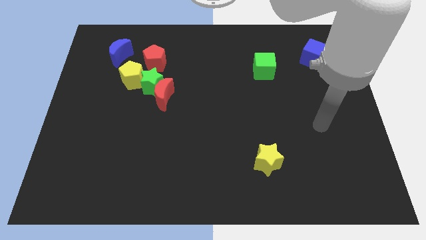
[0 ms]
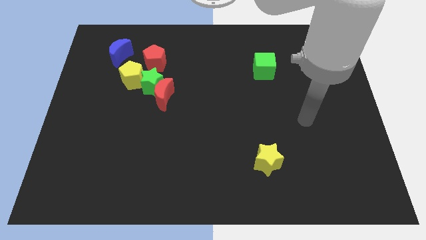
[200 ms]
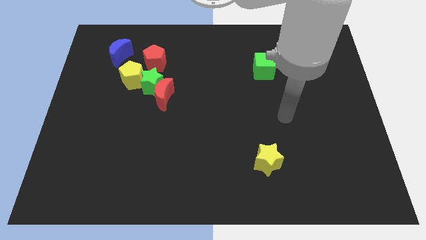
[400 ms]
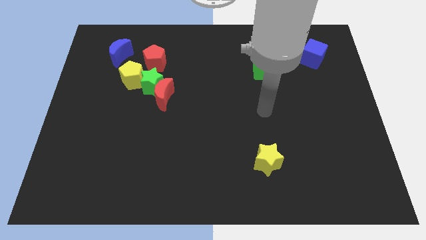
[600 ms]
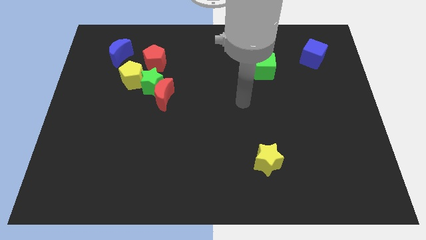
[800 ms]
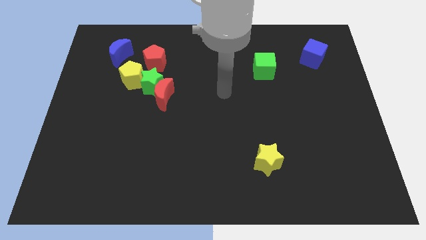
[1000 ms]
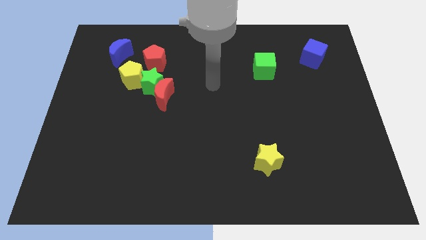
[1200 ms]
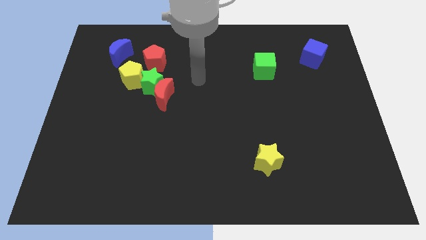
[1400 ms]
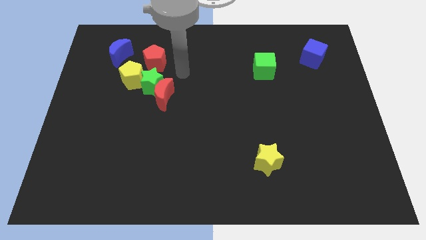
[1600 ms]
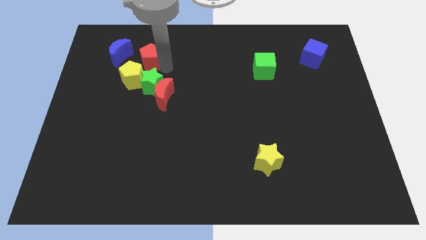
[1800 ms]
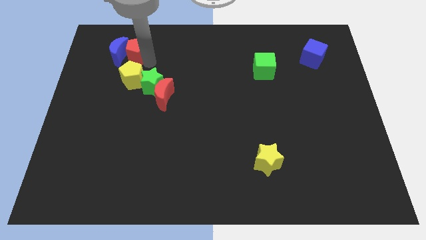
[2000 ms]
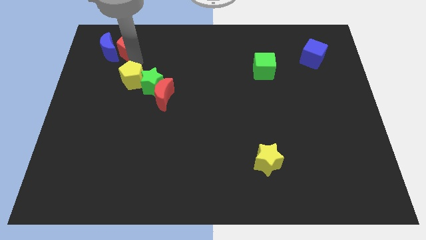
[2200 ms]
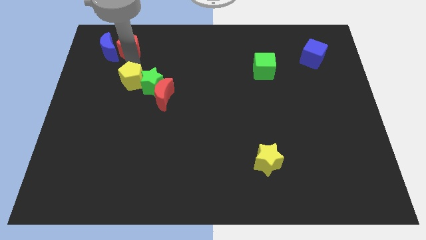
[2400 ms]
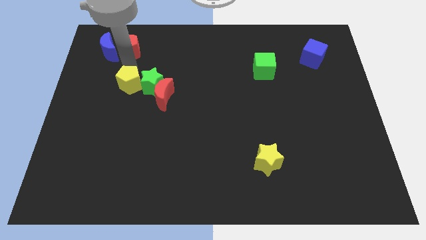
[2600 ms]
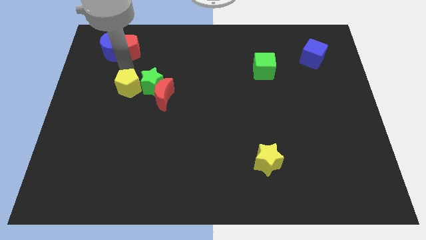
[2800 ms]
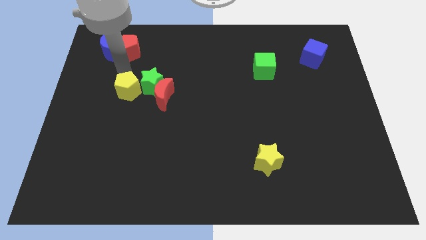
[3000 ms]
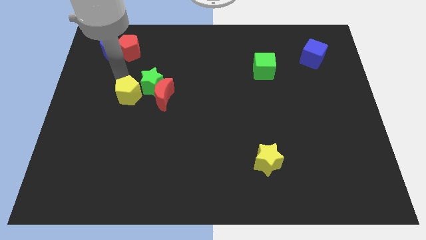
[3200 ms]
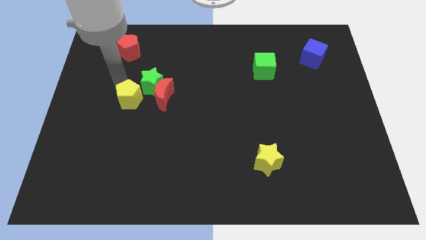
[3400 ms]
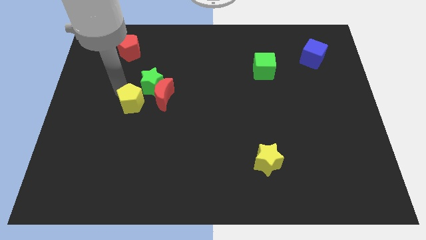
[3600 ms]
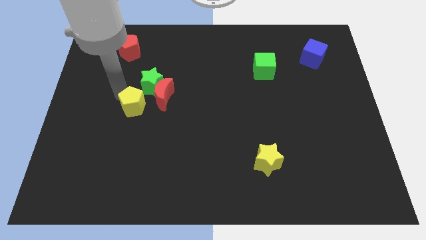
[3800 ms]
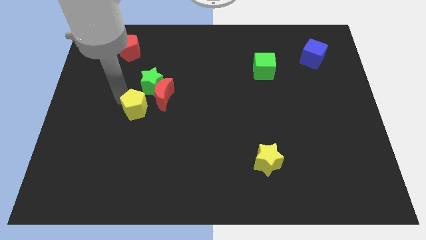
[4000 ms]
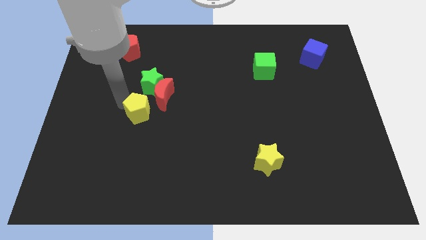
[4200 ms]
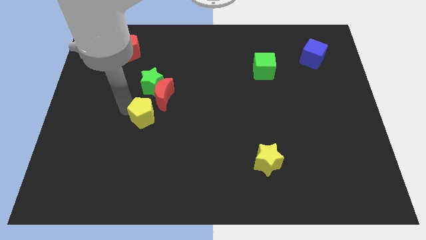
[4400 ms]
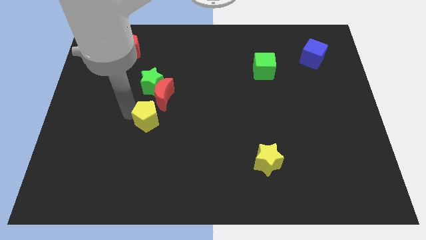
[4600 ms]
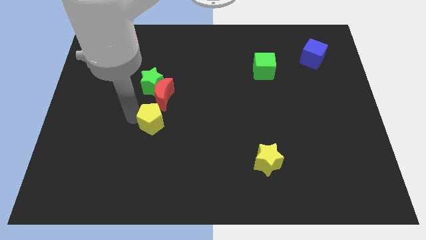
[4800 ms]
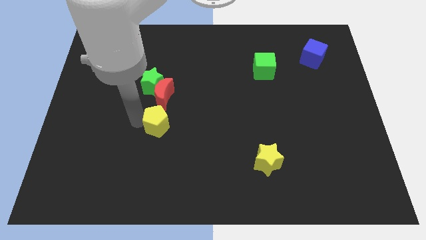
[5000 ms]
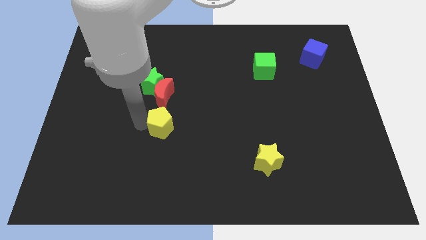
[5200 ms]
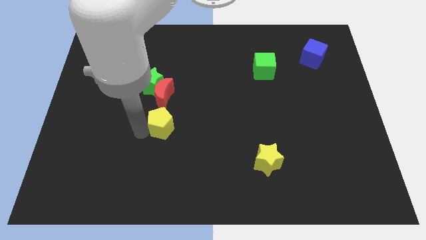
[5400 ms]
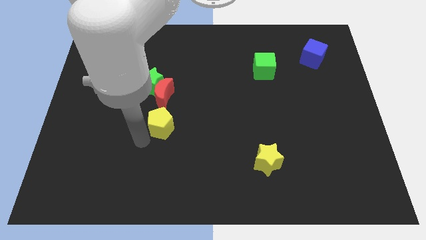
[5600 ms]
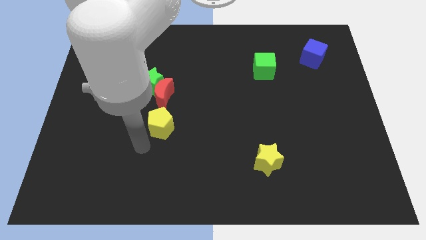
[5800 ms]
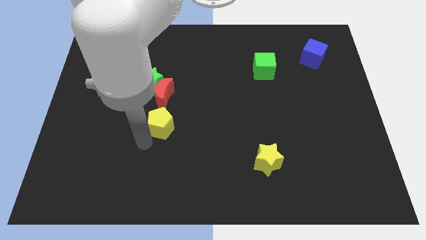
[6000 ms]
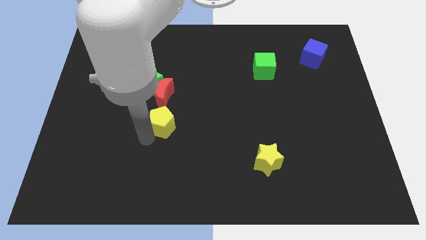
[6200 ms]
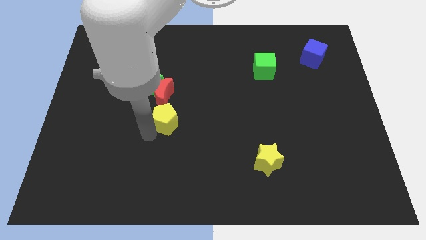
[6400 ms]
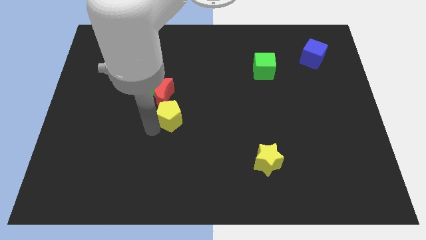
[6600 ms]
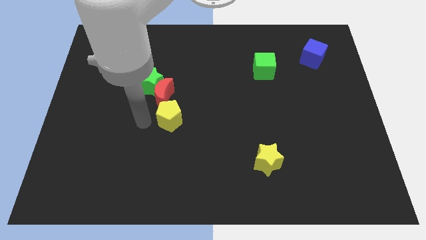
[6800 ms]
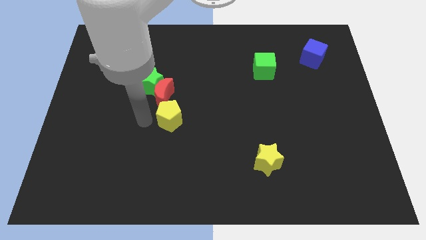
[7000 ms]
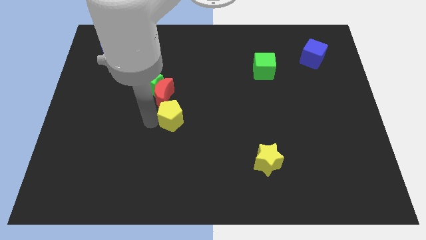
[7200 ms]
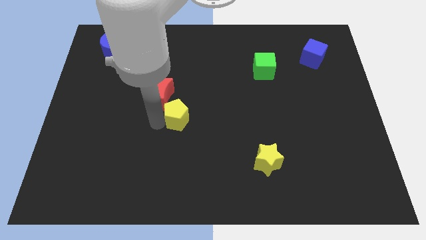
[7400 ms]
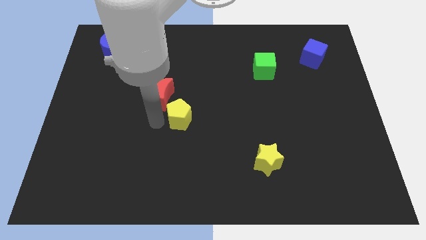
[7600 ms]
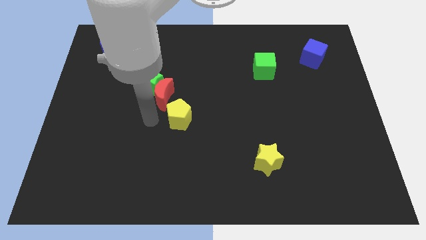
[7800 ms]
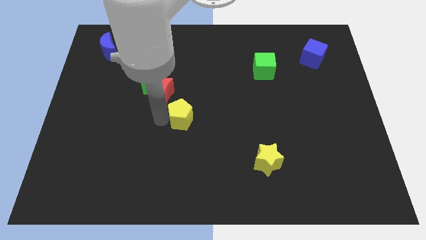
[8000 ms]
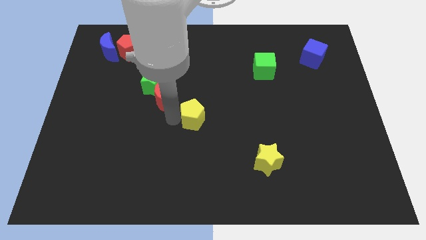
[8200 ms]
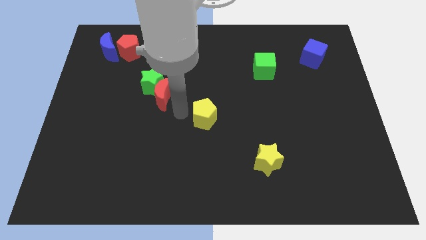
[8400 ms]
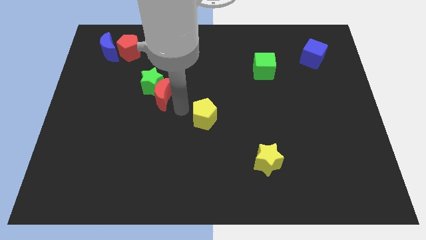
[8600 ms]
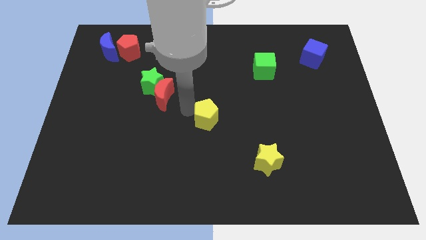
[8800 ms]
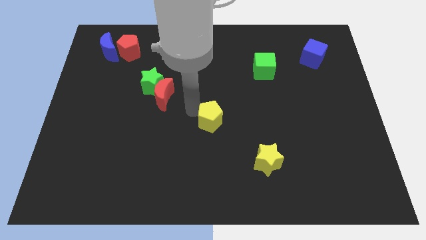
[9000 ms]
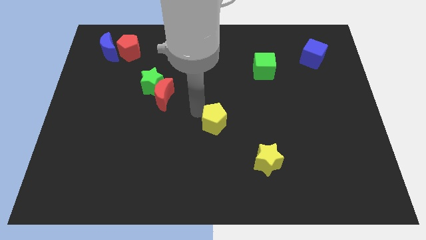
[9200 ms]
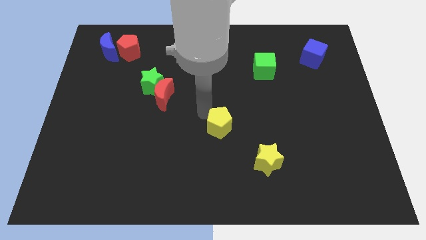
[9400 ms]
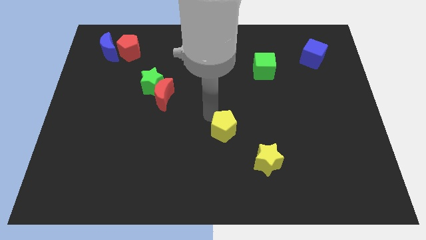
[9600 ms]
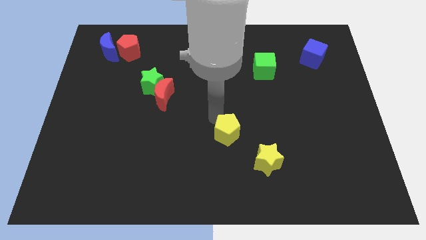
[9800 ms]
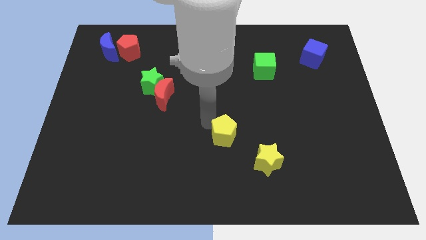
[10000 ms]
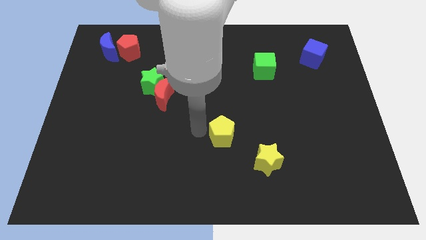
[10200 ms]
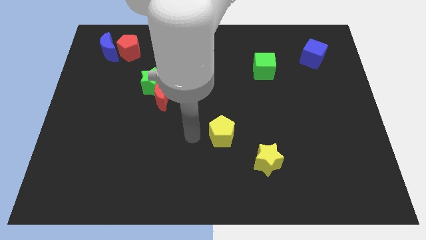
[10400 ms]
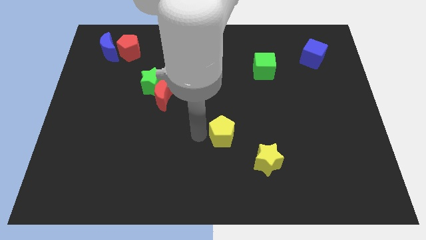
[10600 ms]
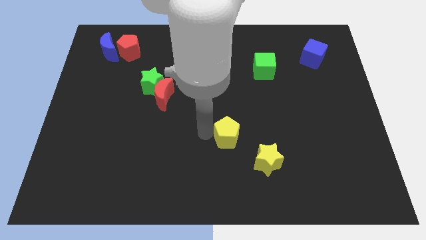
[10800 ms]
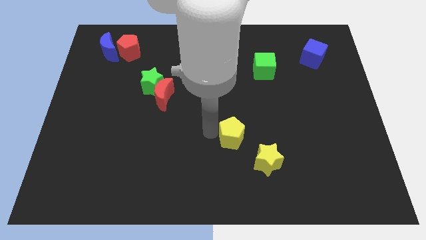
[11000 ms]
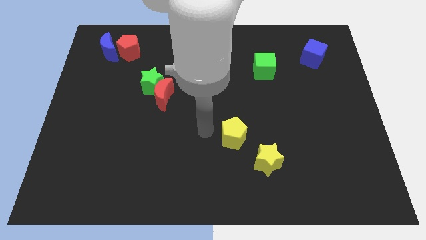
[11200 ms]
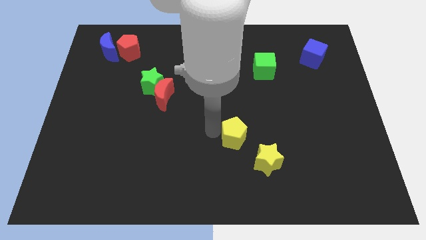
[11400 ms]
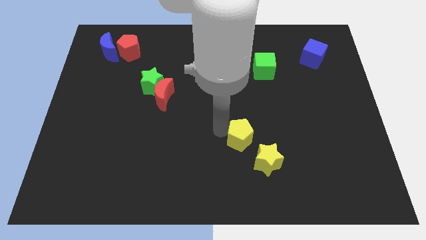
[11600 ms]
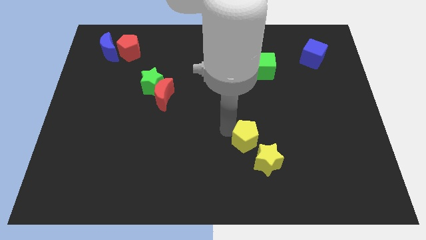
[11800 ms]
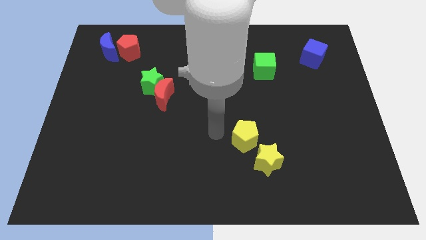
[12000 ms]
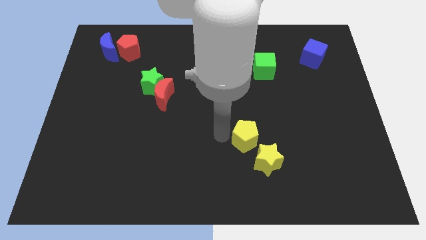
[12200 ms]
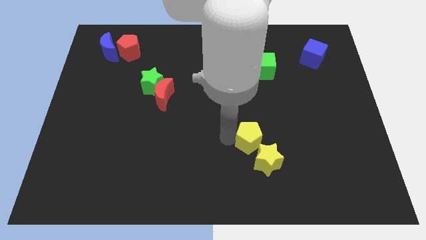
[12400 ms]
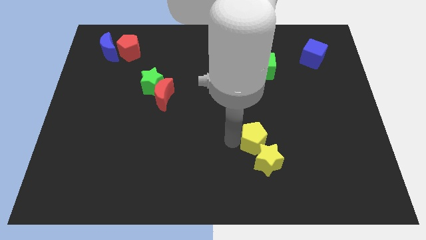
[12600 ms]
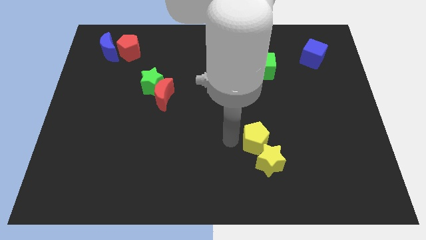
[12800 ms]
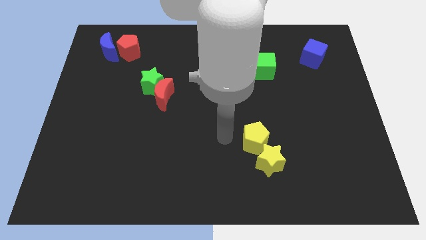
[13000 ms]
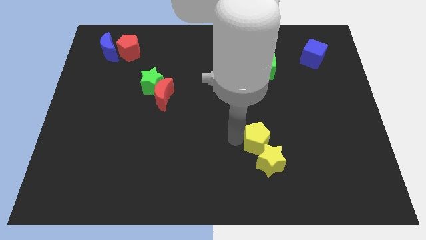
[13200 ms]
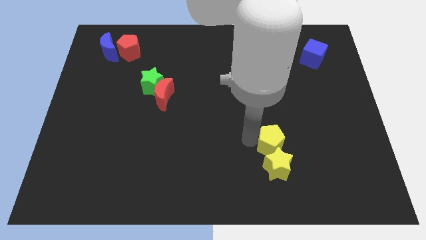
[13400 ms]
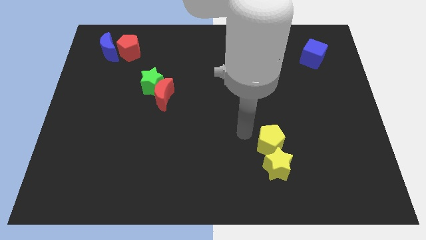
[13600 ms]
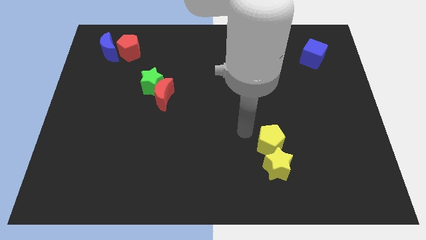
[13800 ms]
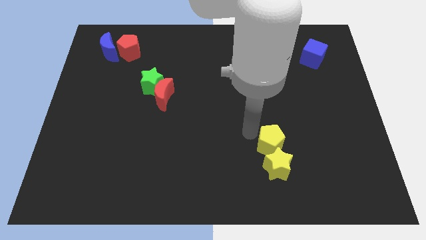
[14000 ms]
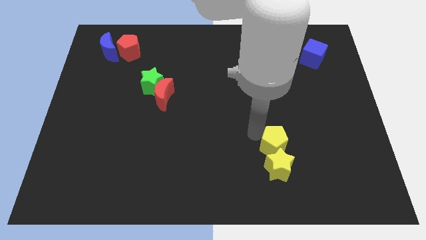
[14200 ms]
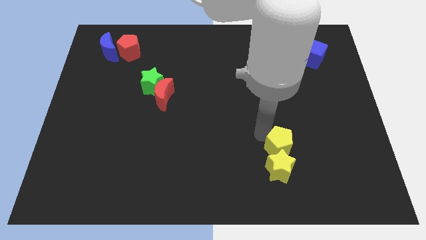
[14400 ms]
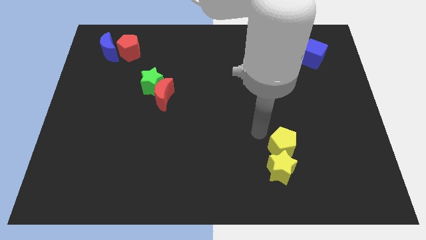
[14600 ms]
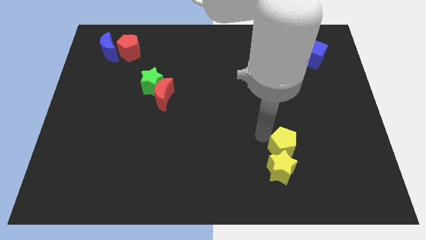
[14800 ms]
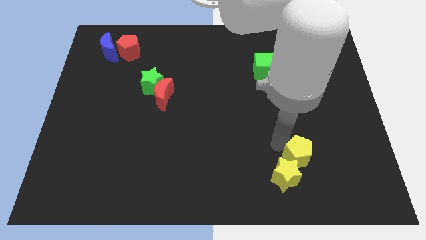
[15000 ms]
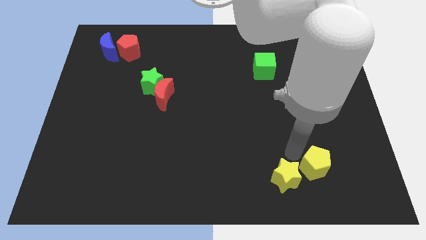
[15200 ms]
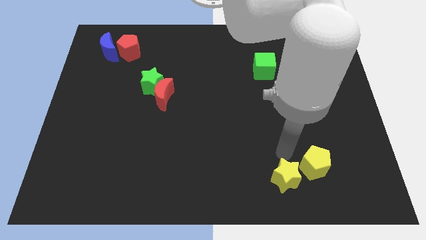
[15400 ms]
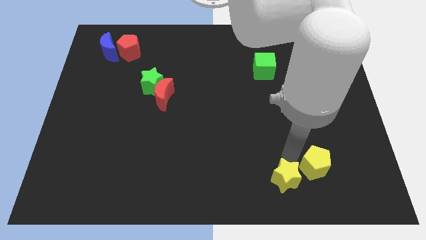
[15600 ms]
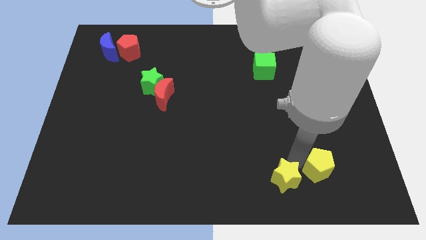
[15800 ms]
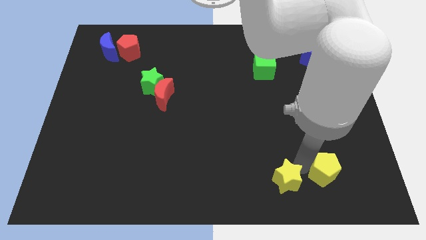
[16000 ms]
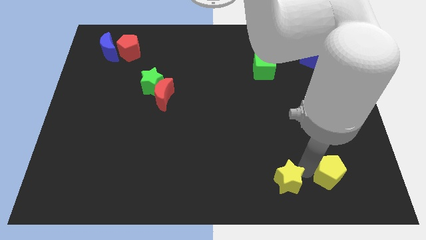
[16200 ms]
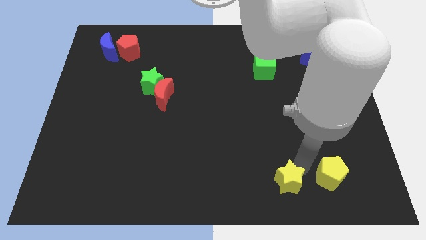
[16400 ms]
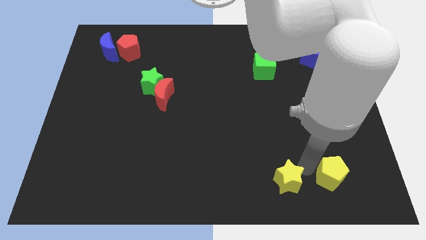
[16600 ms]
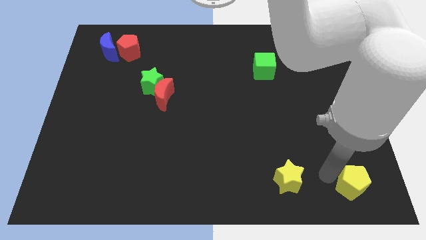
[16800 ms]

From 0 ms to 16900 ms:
move the yellow pentagon to the lower right corner
